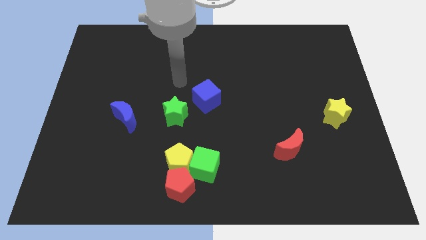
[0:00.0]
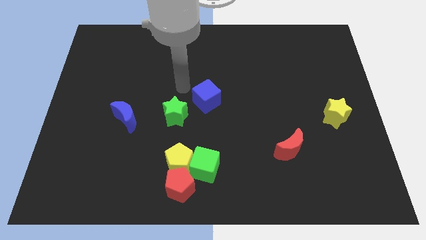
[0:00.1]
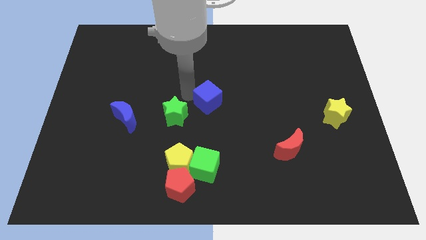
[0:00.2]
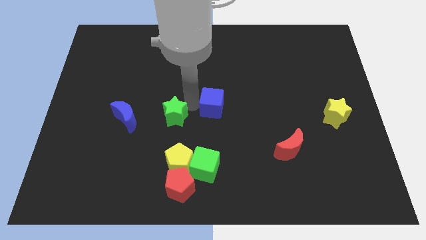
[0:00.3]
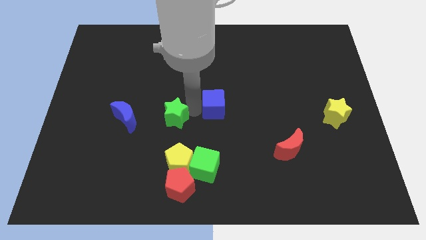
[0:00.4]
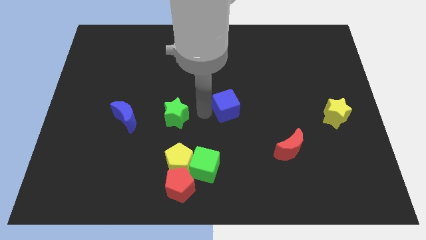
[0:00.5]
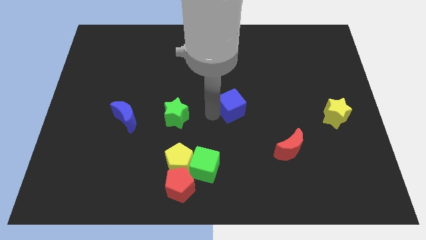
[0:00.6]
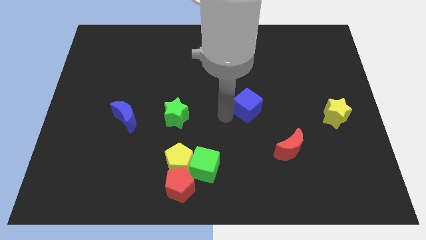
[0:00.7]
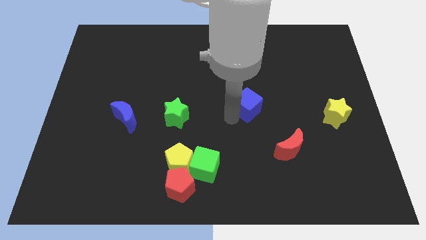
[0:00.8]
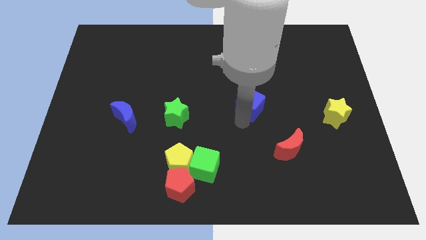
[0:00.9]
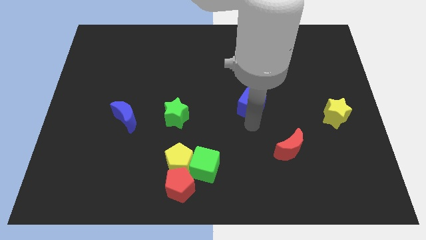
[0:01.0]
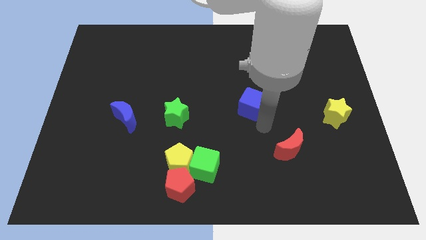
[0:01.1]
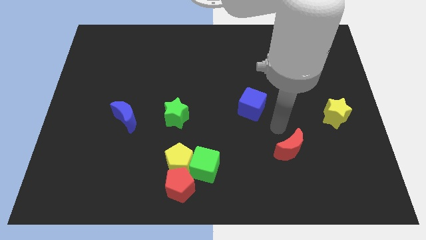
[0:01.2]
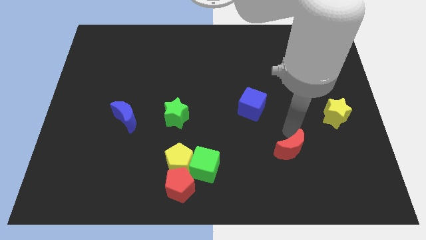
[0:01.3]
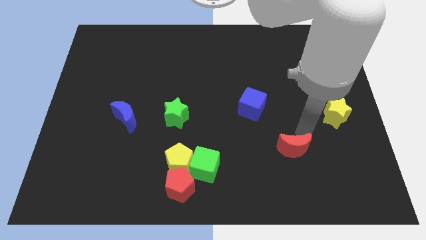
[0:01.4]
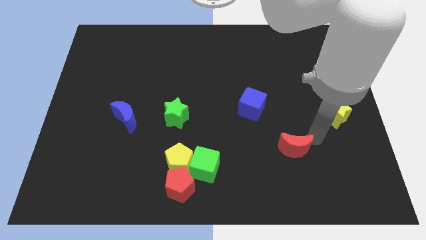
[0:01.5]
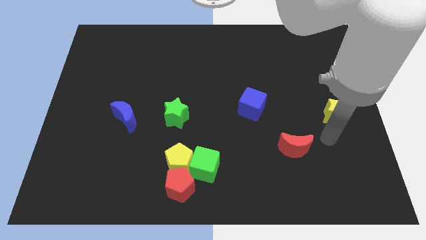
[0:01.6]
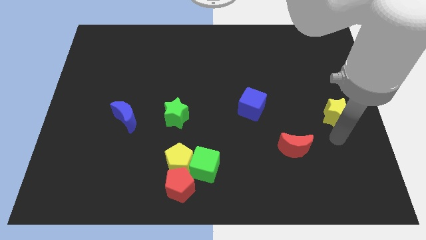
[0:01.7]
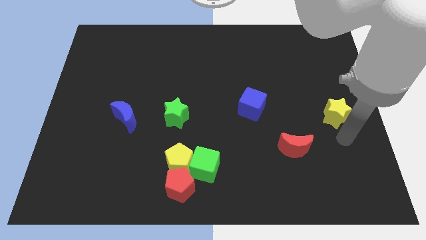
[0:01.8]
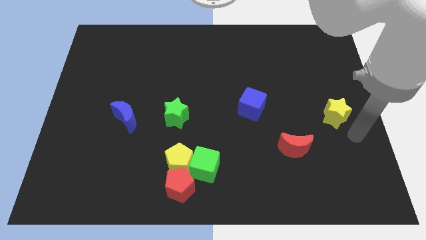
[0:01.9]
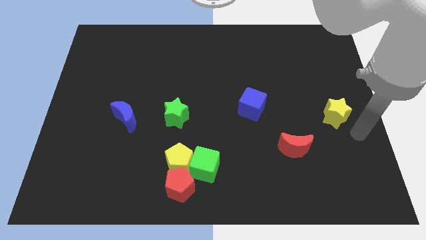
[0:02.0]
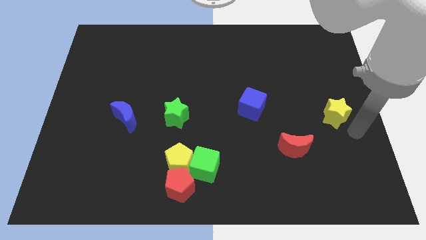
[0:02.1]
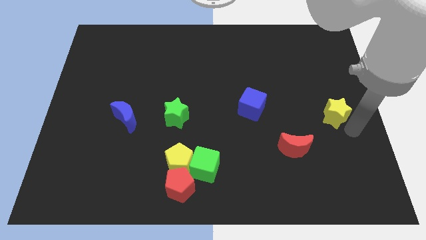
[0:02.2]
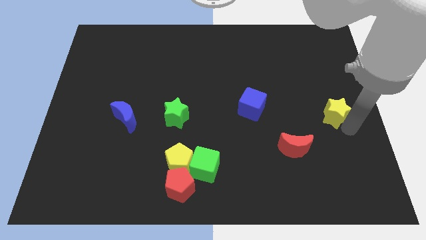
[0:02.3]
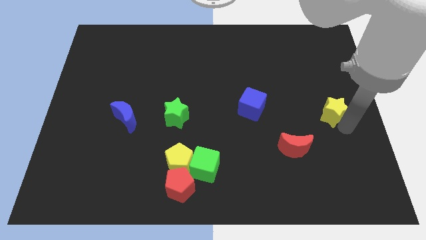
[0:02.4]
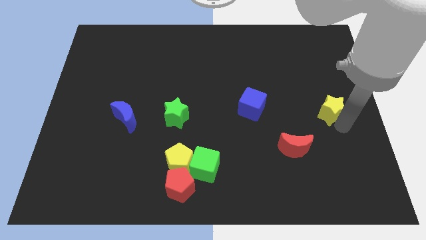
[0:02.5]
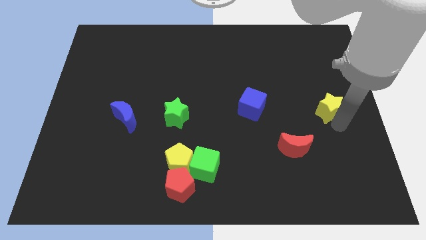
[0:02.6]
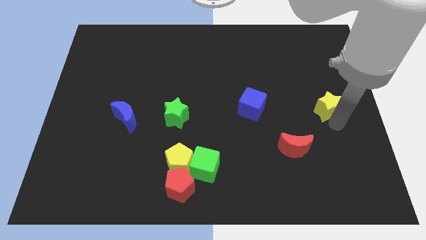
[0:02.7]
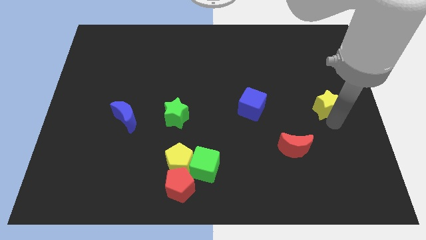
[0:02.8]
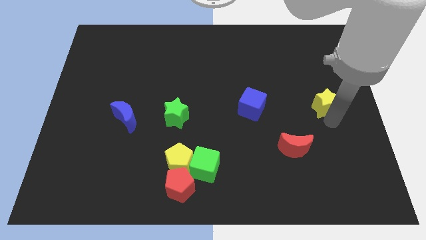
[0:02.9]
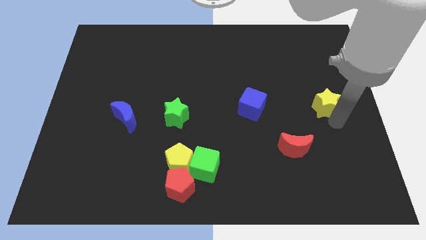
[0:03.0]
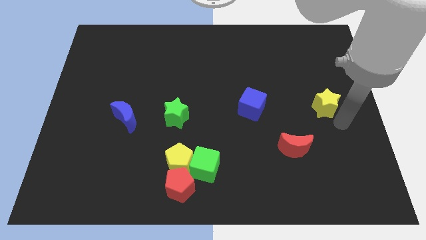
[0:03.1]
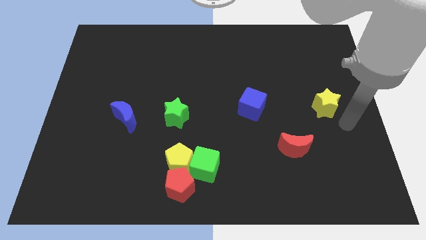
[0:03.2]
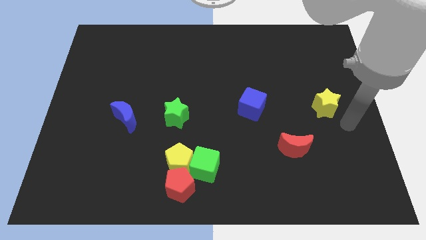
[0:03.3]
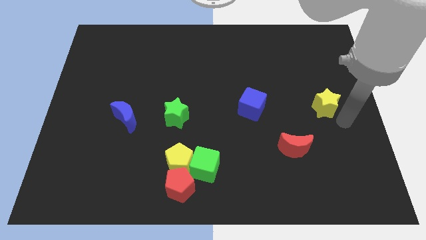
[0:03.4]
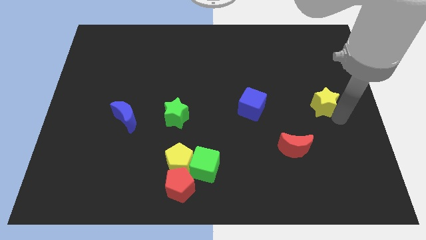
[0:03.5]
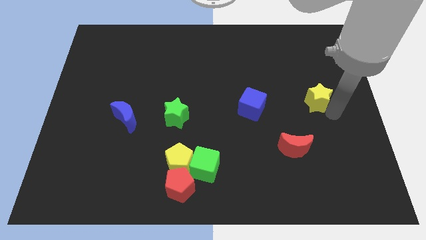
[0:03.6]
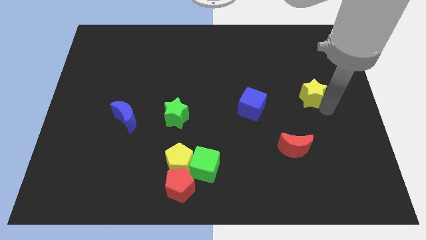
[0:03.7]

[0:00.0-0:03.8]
slightly move the yellow star upwards and left diagonally

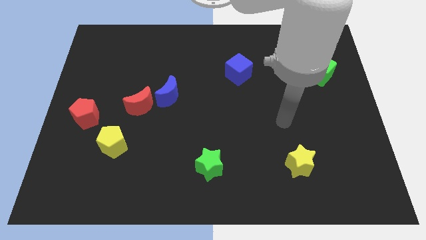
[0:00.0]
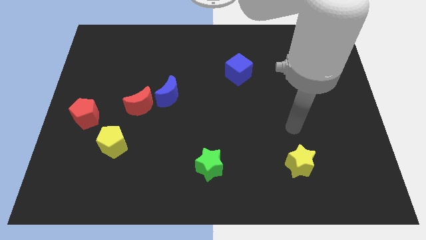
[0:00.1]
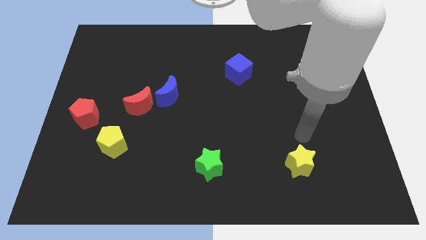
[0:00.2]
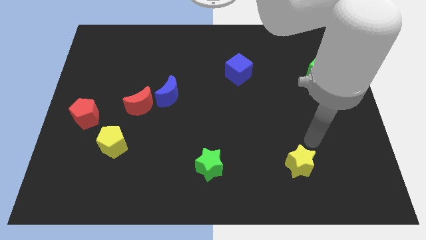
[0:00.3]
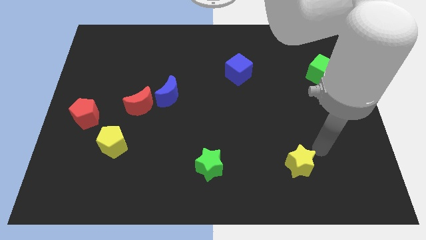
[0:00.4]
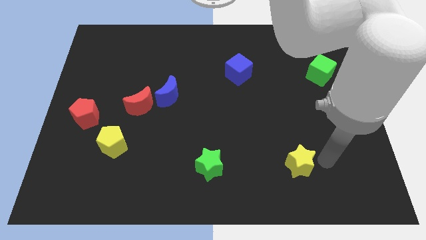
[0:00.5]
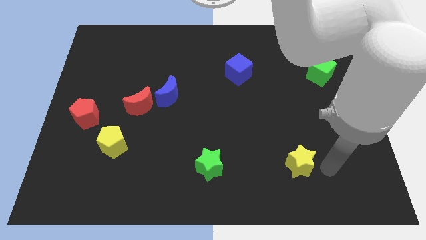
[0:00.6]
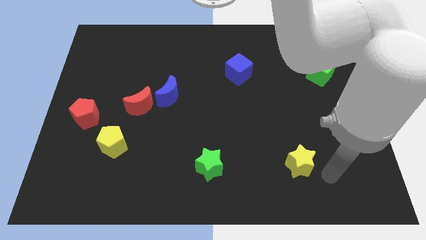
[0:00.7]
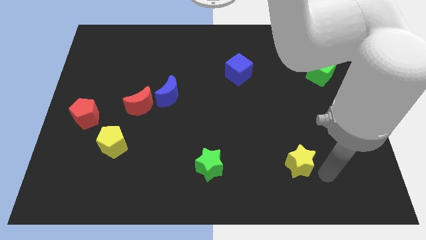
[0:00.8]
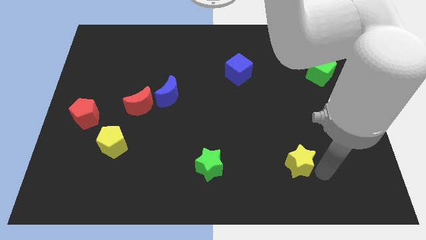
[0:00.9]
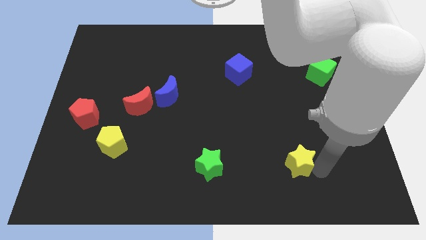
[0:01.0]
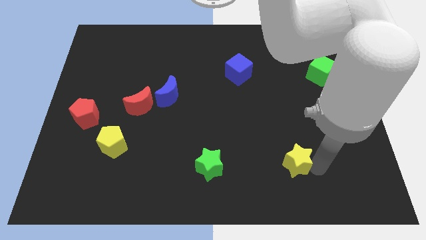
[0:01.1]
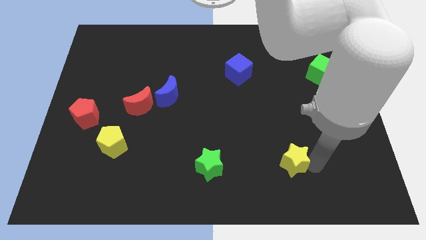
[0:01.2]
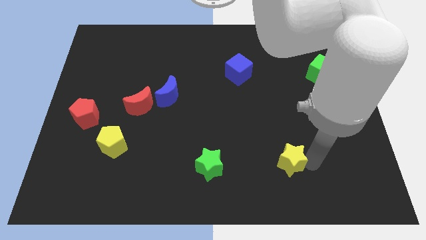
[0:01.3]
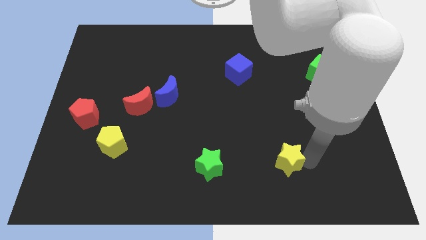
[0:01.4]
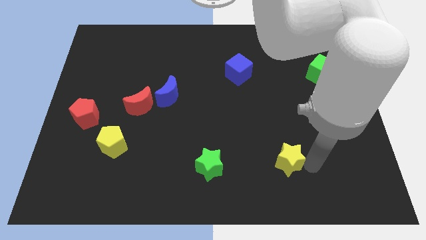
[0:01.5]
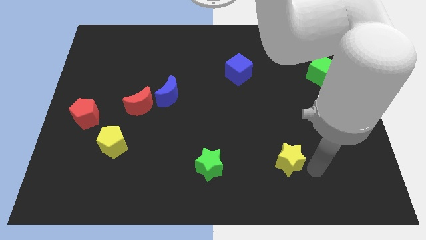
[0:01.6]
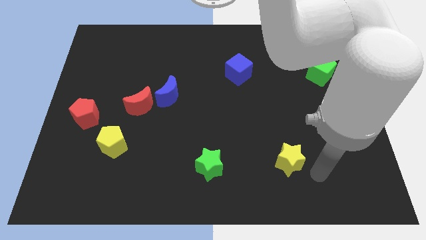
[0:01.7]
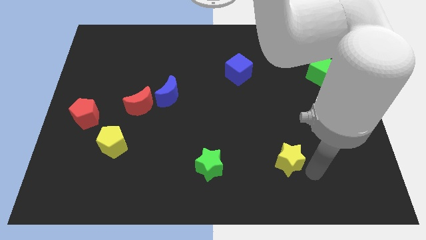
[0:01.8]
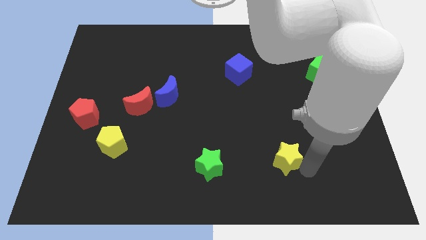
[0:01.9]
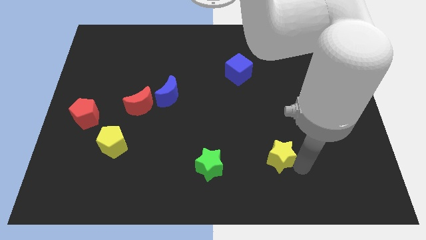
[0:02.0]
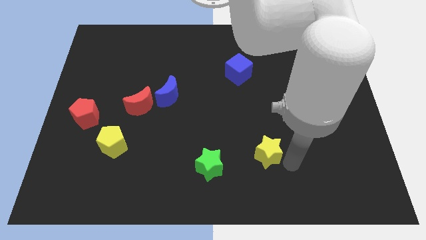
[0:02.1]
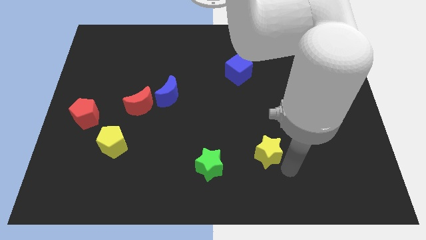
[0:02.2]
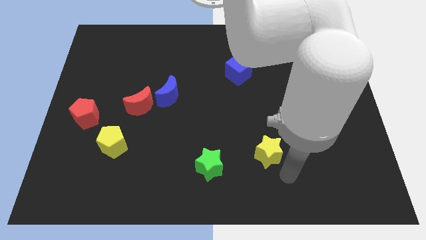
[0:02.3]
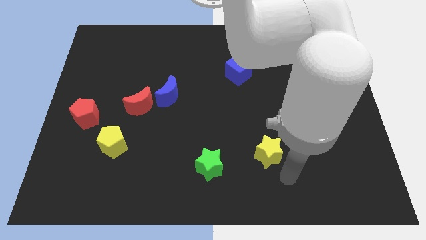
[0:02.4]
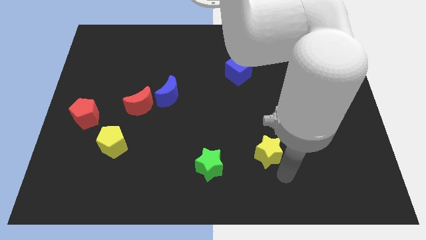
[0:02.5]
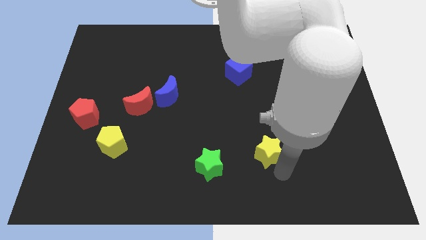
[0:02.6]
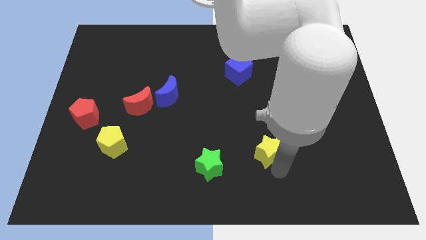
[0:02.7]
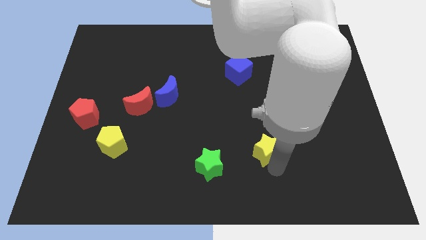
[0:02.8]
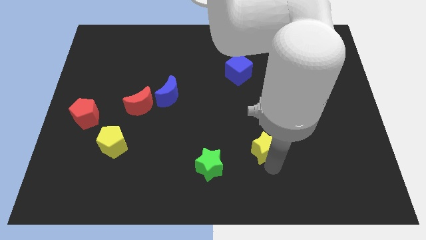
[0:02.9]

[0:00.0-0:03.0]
move the yellow star a bit up and to the left

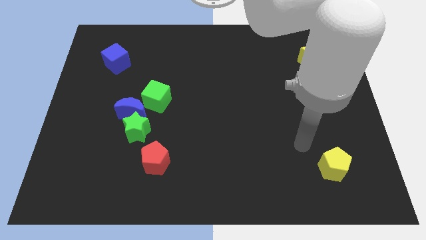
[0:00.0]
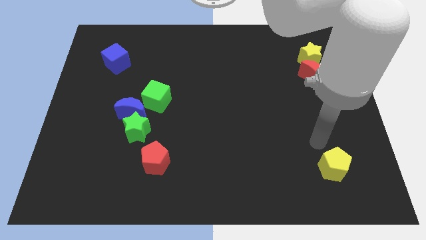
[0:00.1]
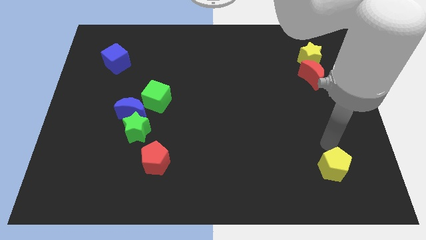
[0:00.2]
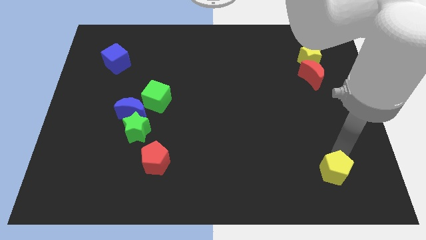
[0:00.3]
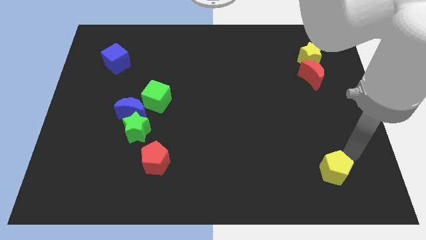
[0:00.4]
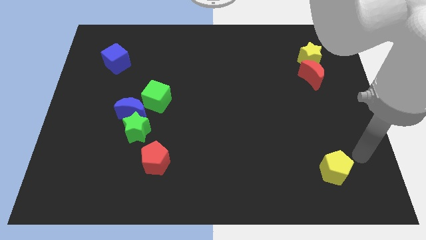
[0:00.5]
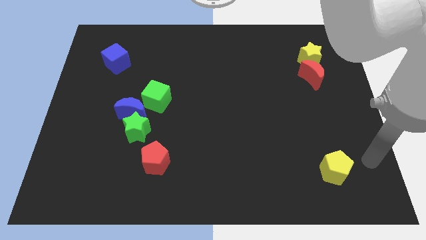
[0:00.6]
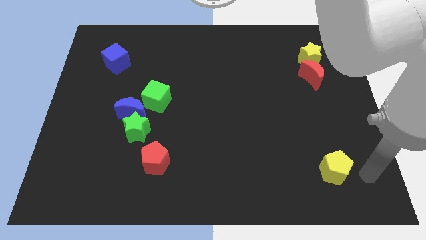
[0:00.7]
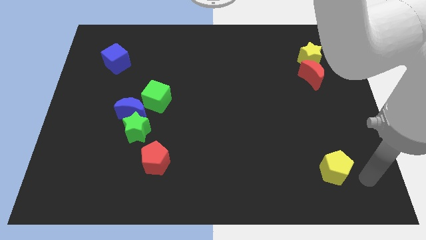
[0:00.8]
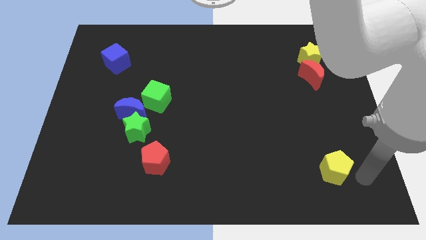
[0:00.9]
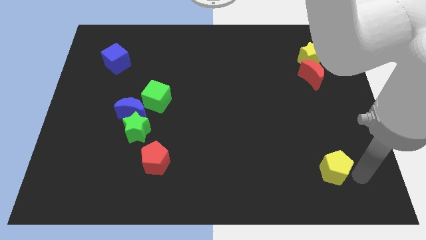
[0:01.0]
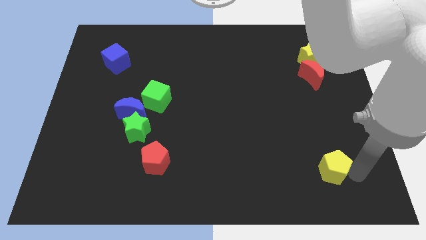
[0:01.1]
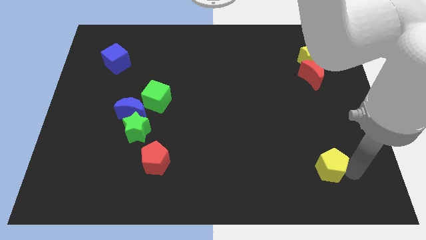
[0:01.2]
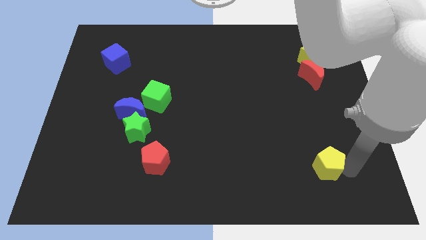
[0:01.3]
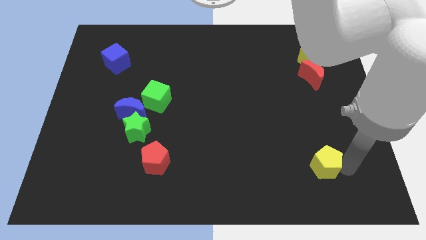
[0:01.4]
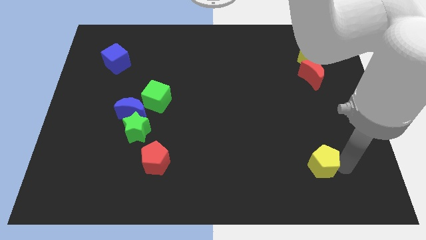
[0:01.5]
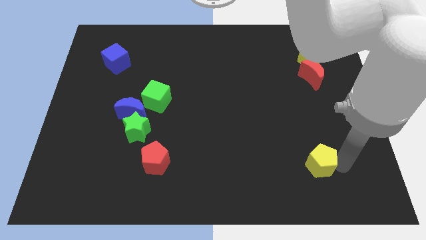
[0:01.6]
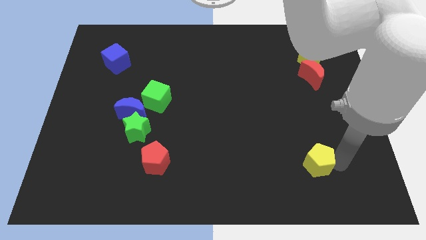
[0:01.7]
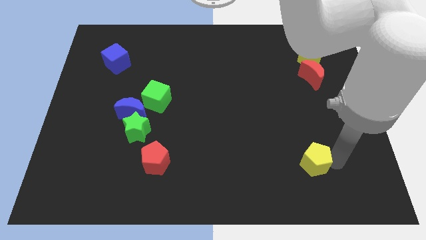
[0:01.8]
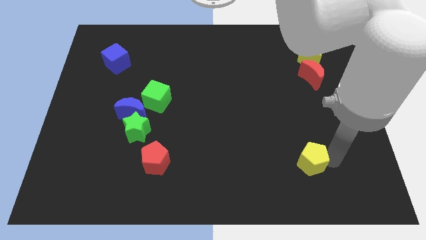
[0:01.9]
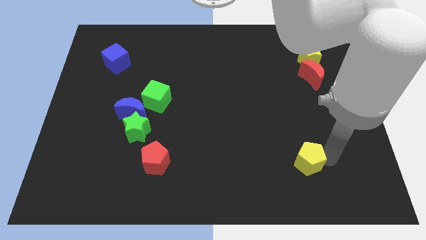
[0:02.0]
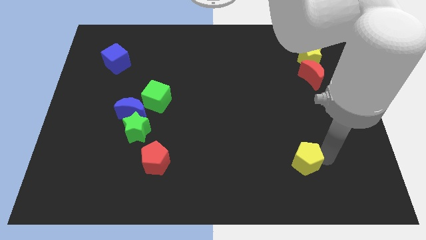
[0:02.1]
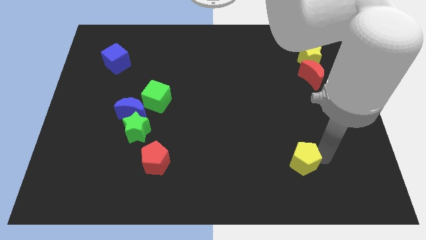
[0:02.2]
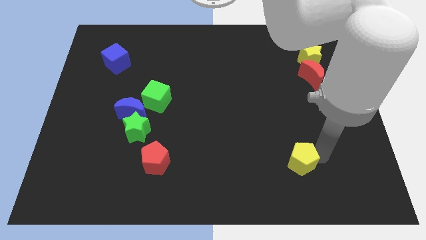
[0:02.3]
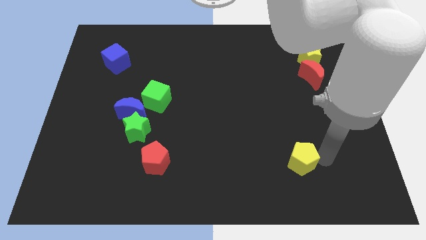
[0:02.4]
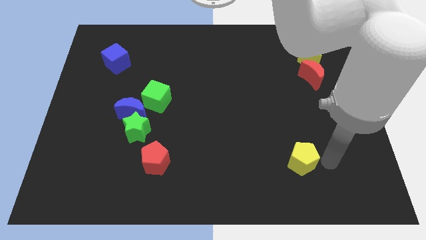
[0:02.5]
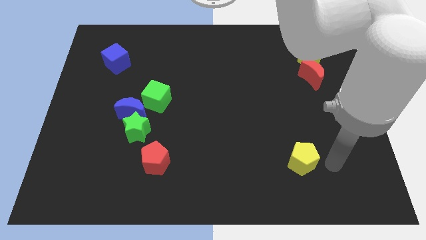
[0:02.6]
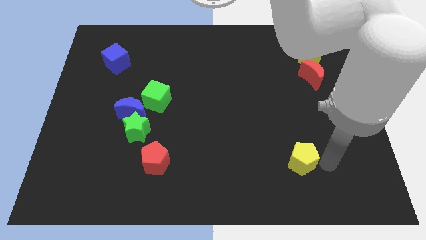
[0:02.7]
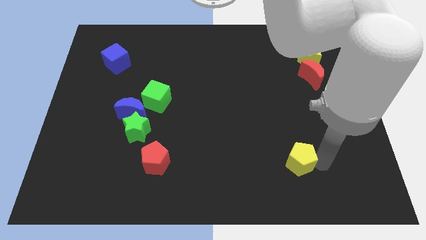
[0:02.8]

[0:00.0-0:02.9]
slightly move the yellow pentagon left
